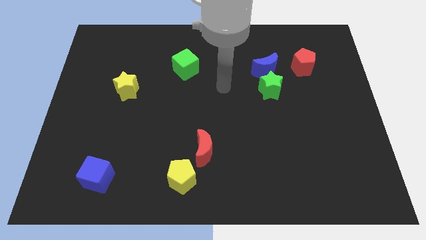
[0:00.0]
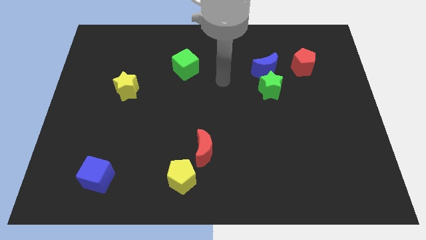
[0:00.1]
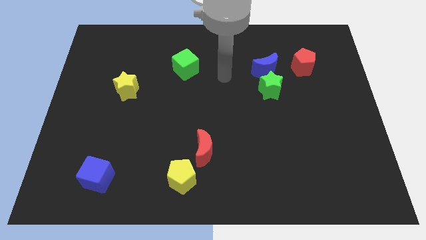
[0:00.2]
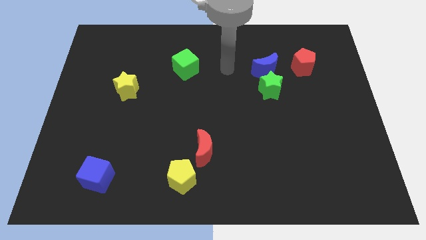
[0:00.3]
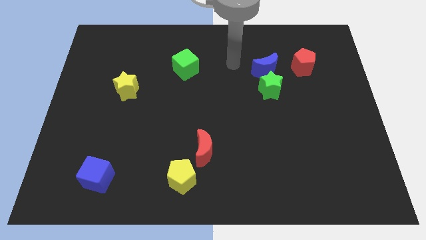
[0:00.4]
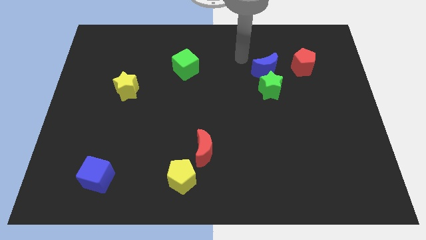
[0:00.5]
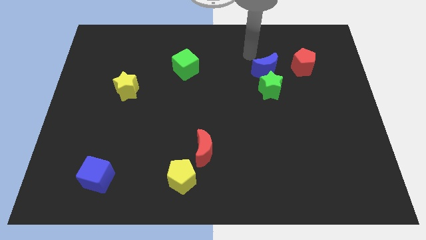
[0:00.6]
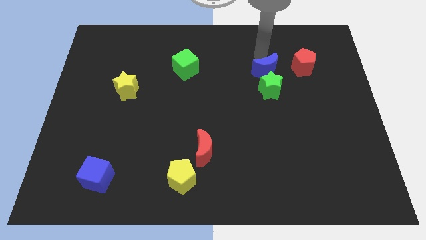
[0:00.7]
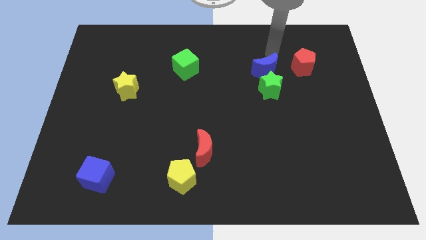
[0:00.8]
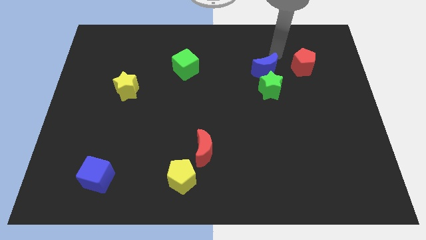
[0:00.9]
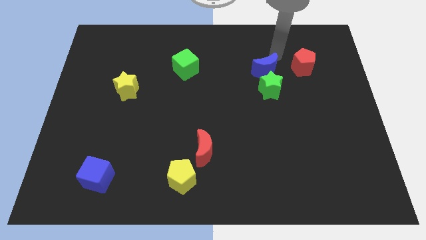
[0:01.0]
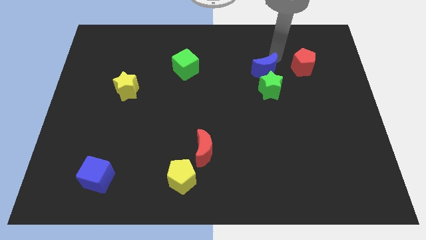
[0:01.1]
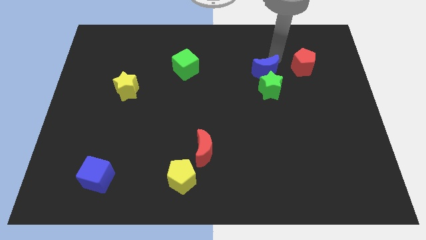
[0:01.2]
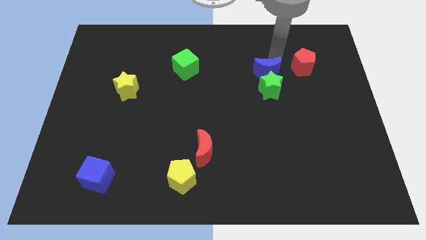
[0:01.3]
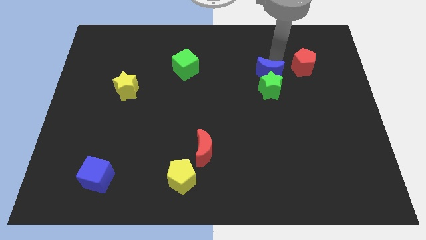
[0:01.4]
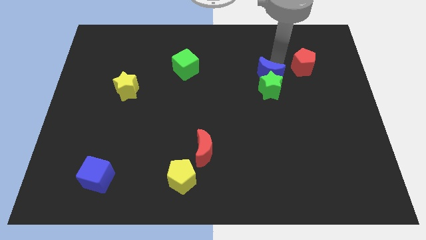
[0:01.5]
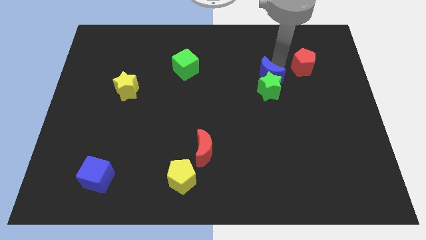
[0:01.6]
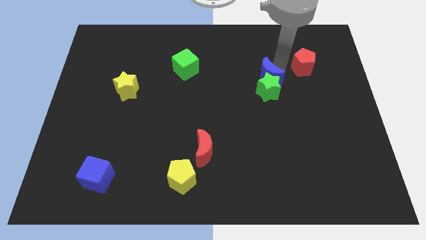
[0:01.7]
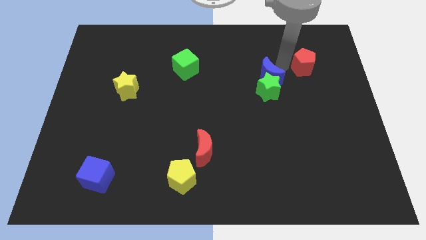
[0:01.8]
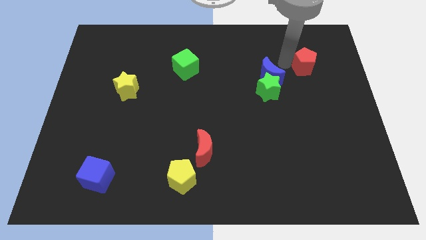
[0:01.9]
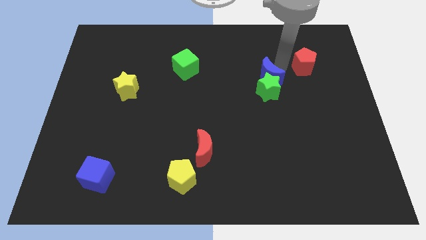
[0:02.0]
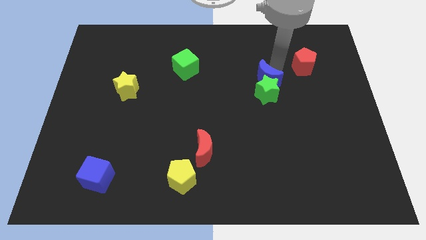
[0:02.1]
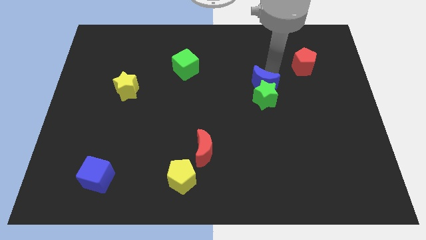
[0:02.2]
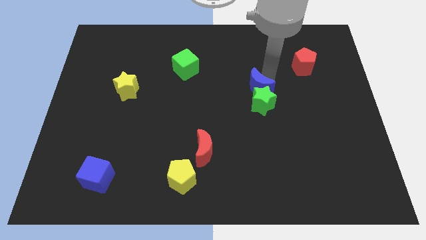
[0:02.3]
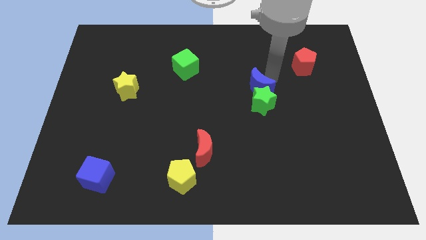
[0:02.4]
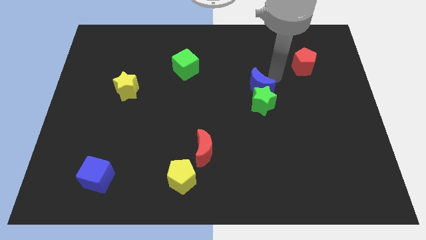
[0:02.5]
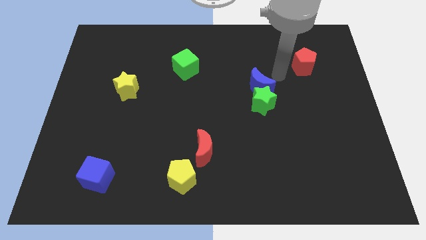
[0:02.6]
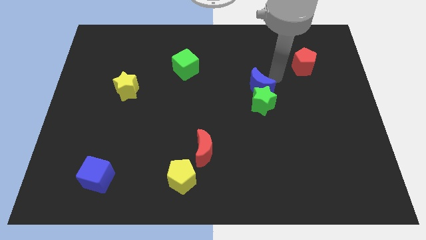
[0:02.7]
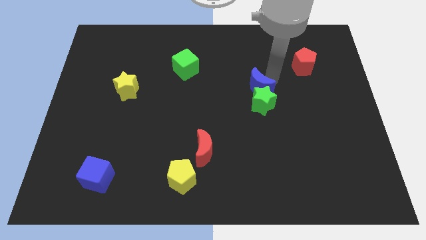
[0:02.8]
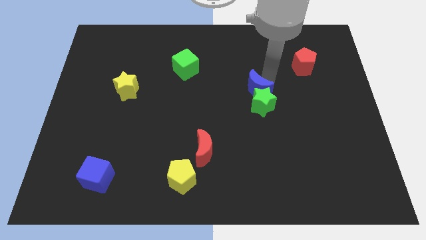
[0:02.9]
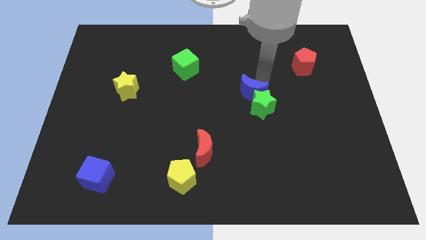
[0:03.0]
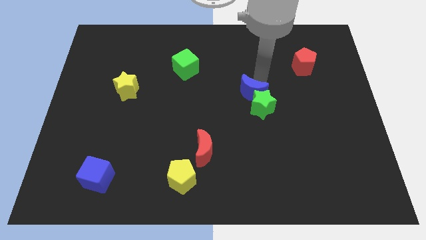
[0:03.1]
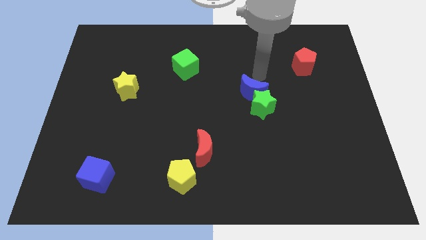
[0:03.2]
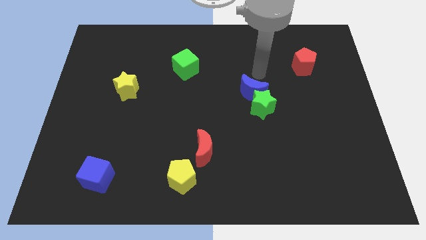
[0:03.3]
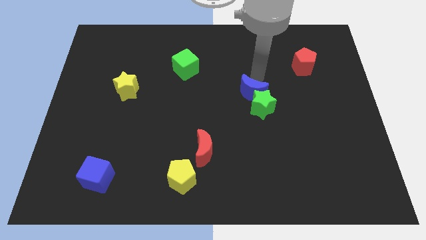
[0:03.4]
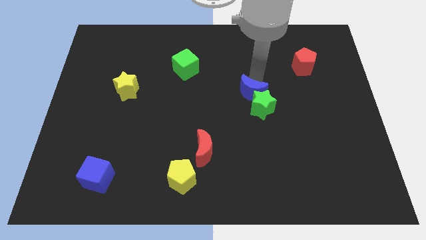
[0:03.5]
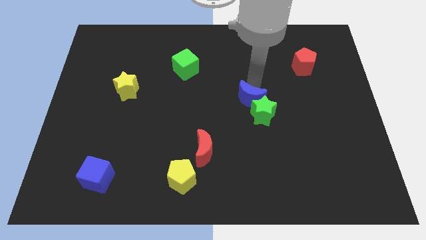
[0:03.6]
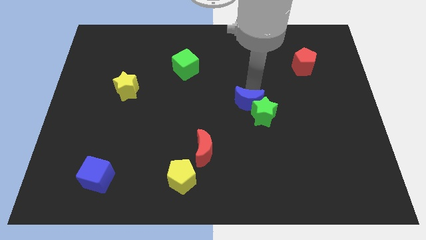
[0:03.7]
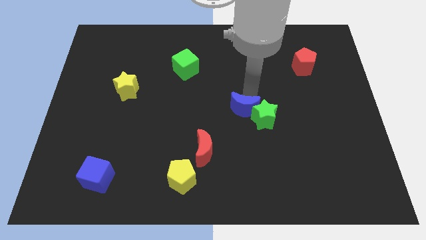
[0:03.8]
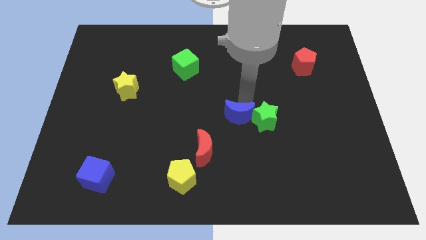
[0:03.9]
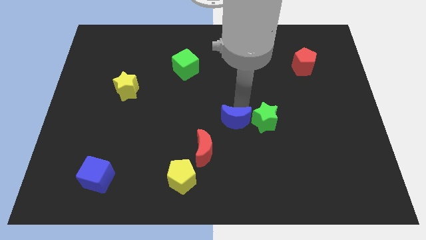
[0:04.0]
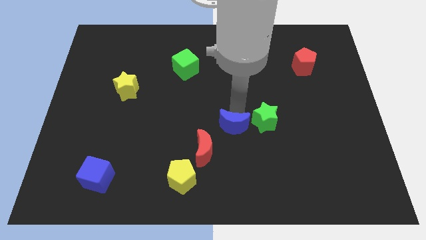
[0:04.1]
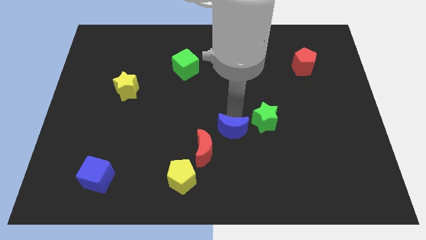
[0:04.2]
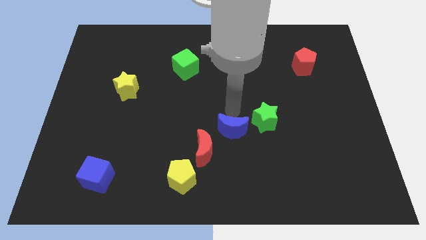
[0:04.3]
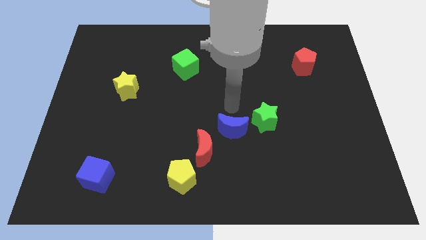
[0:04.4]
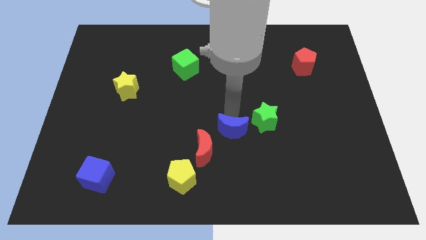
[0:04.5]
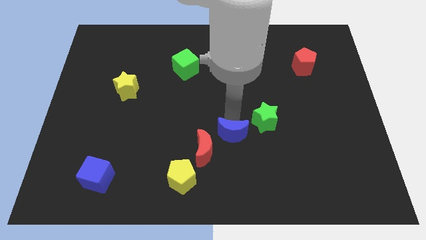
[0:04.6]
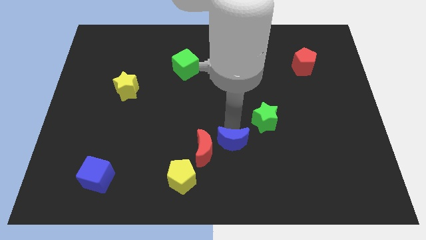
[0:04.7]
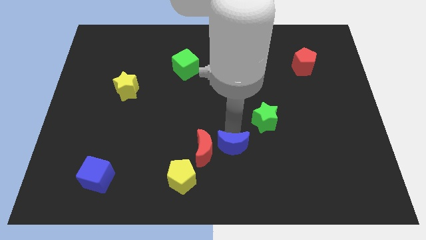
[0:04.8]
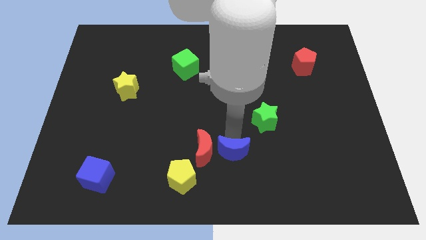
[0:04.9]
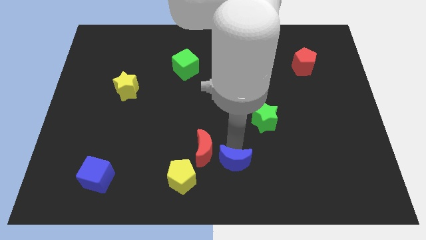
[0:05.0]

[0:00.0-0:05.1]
move the blue moon to the bottom
